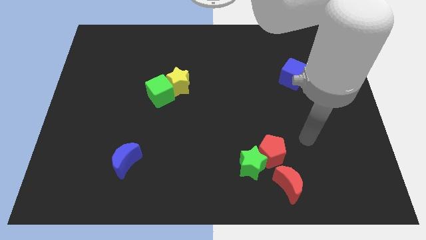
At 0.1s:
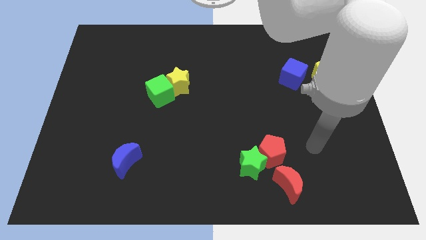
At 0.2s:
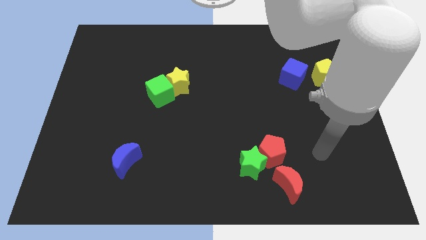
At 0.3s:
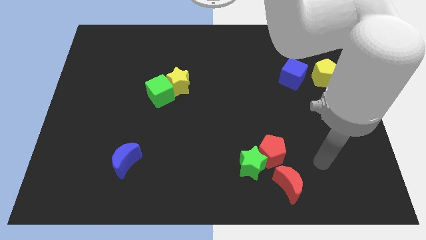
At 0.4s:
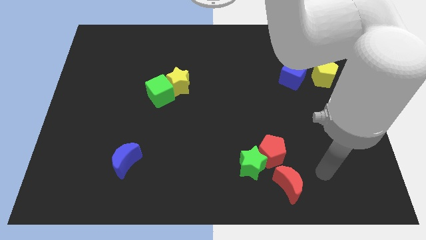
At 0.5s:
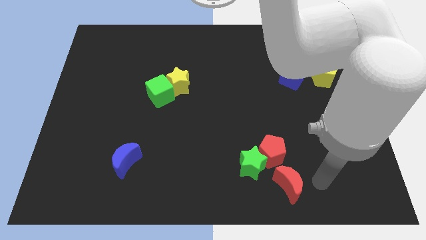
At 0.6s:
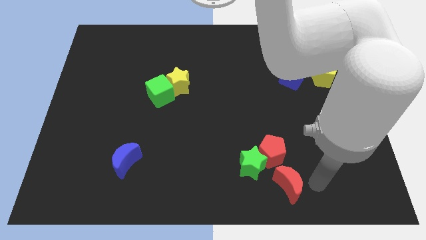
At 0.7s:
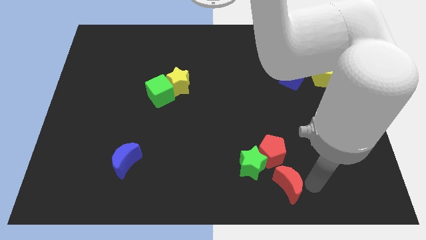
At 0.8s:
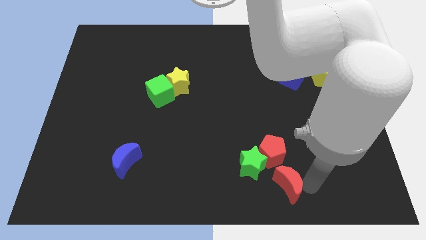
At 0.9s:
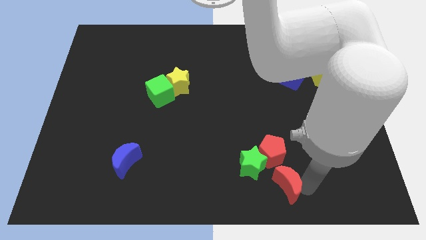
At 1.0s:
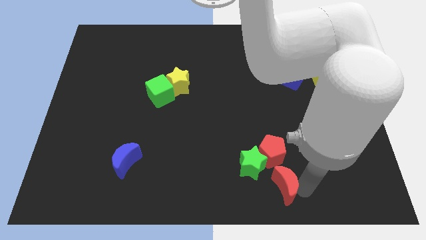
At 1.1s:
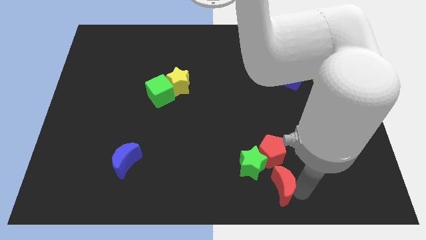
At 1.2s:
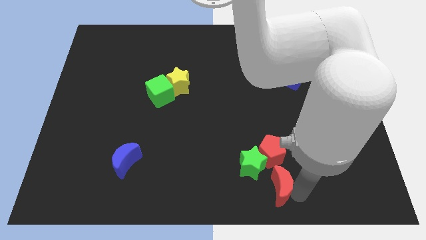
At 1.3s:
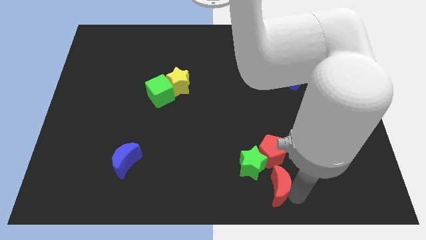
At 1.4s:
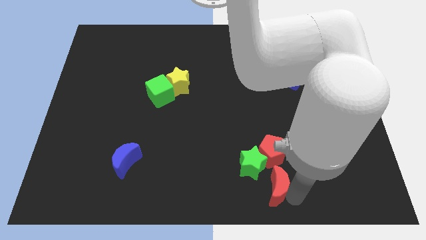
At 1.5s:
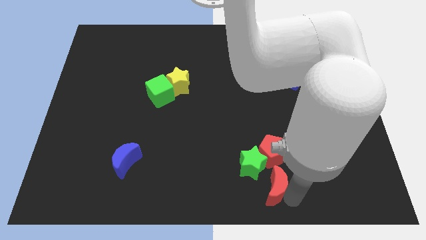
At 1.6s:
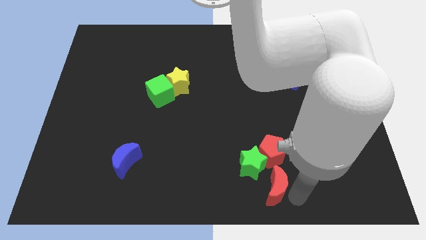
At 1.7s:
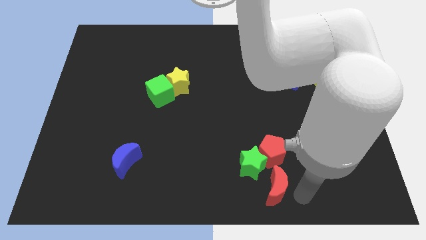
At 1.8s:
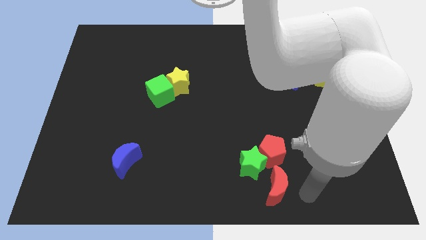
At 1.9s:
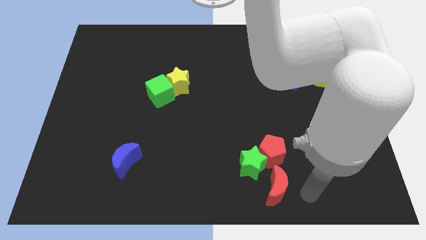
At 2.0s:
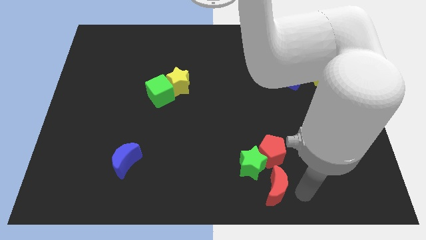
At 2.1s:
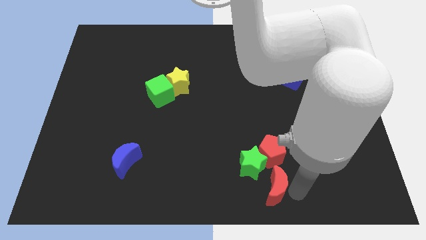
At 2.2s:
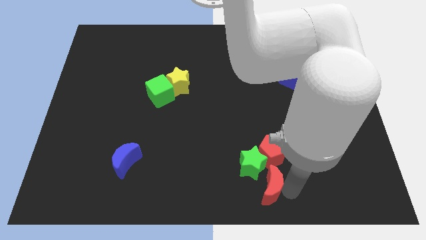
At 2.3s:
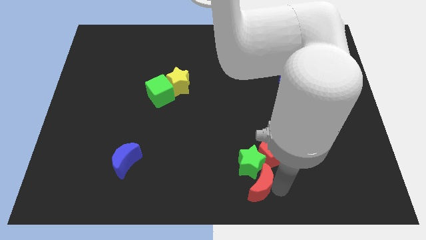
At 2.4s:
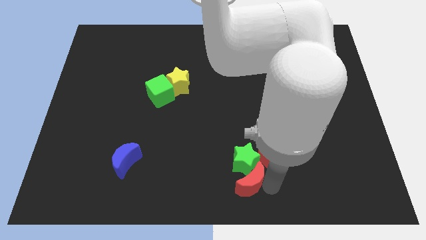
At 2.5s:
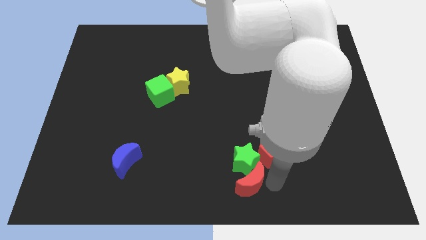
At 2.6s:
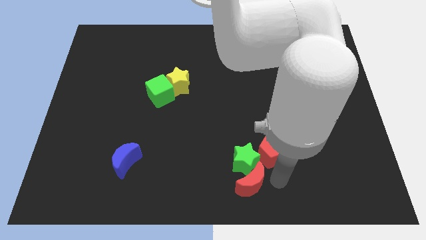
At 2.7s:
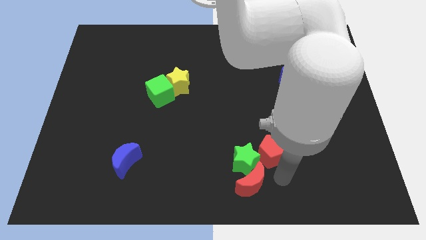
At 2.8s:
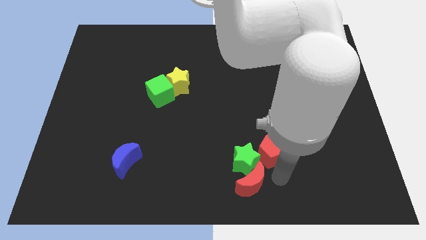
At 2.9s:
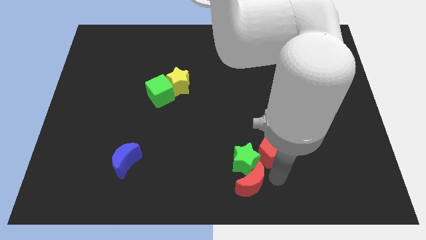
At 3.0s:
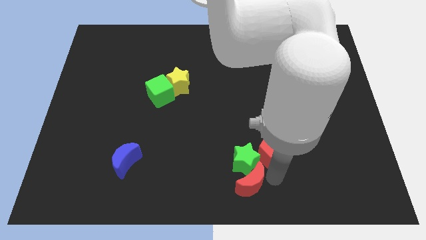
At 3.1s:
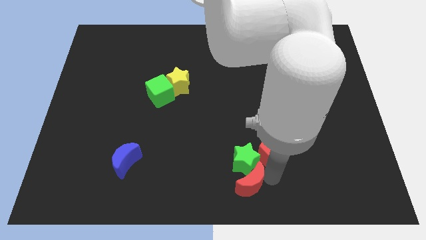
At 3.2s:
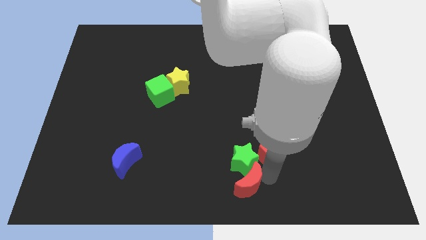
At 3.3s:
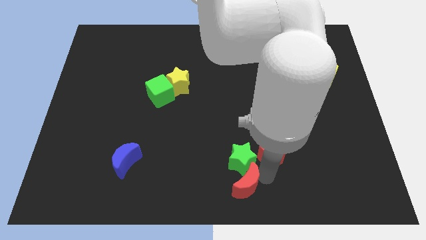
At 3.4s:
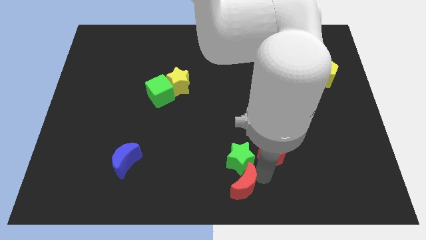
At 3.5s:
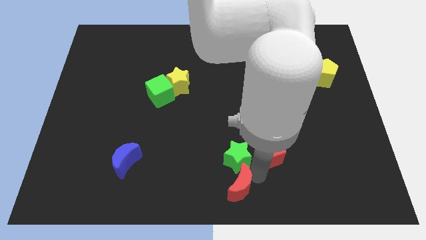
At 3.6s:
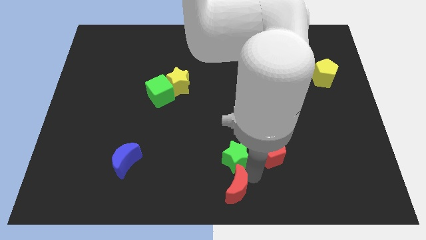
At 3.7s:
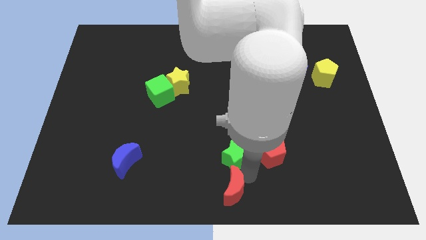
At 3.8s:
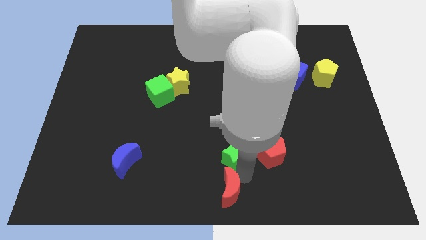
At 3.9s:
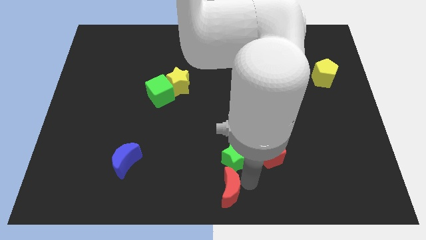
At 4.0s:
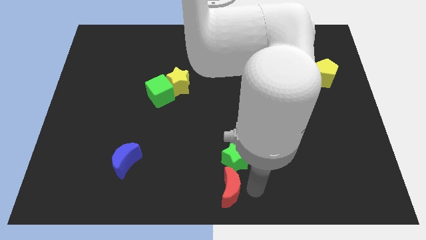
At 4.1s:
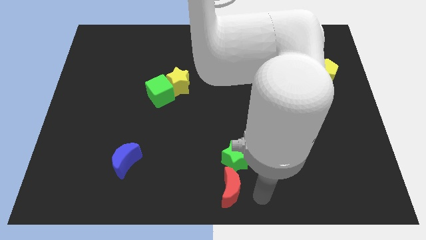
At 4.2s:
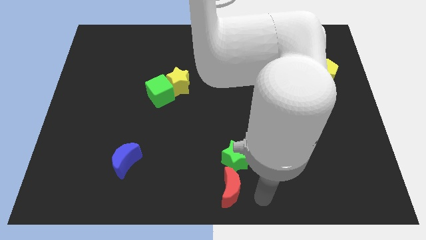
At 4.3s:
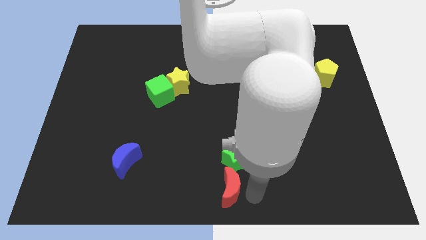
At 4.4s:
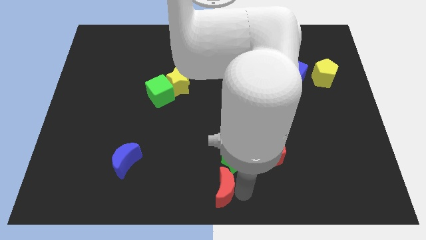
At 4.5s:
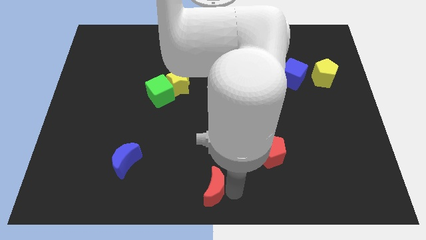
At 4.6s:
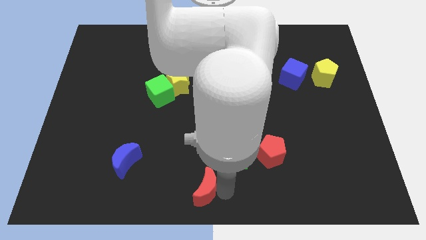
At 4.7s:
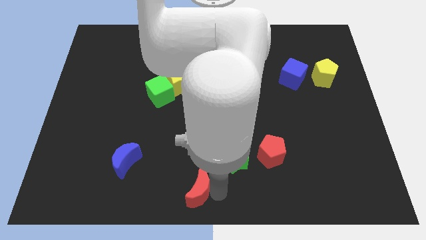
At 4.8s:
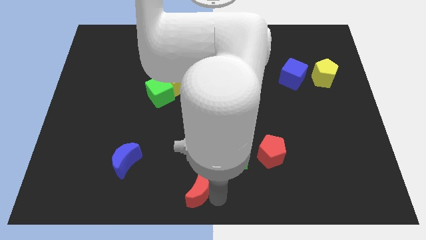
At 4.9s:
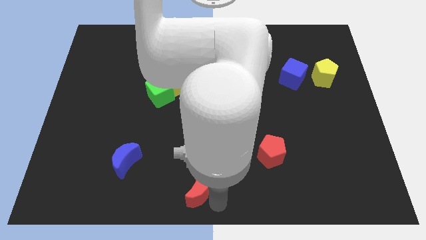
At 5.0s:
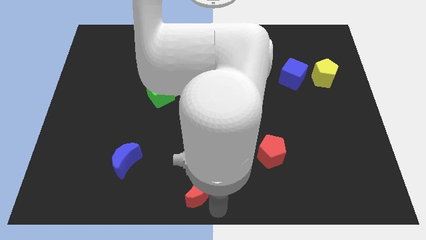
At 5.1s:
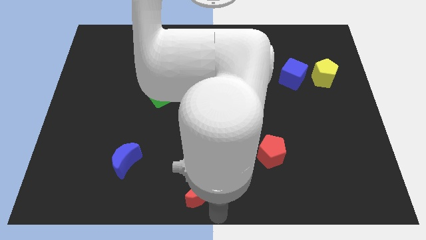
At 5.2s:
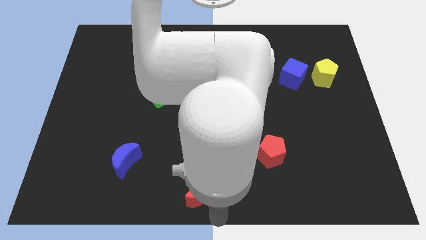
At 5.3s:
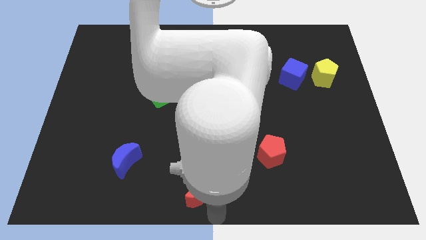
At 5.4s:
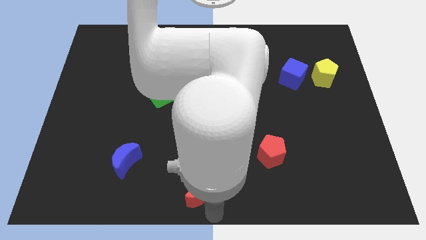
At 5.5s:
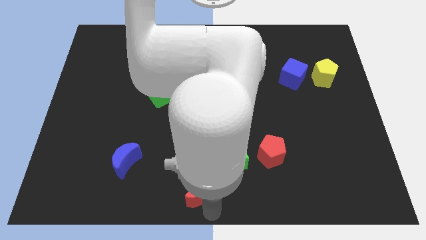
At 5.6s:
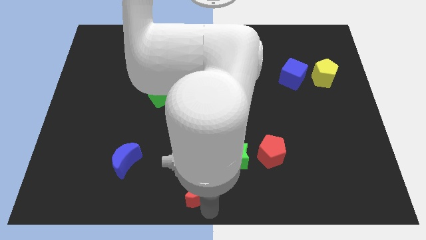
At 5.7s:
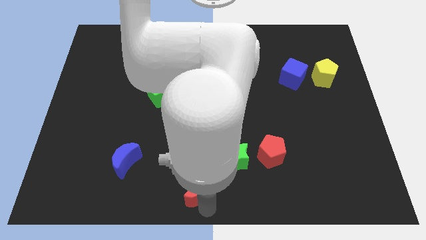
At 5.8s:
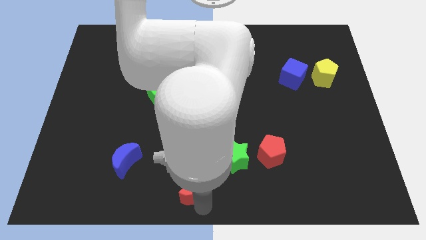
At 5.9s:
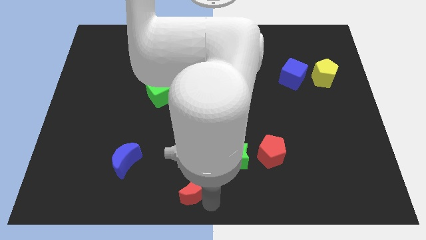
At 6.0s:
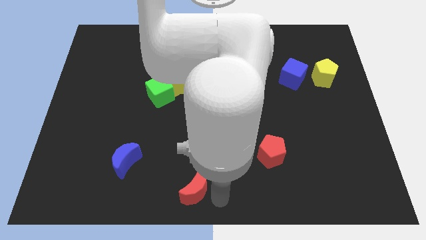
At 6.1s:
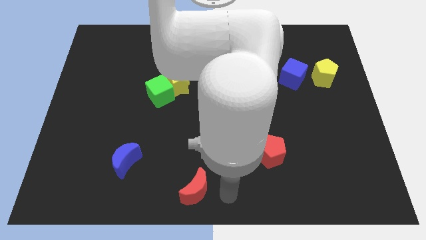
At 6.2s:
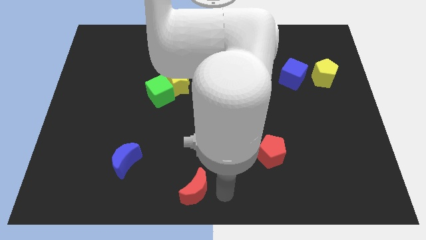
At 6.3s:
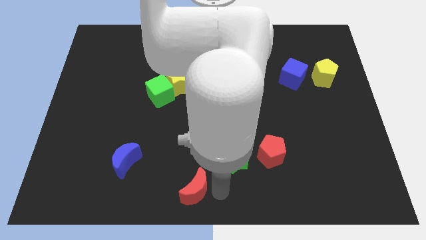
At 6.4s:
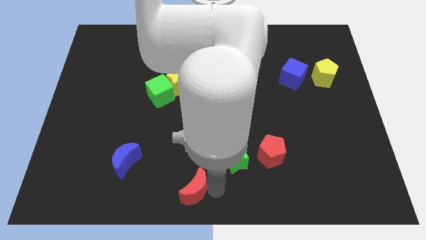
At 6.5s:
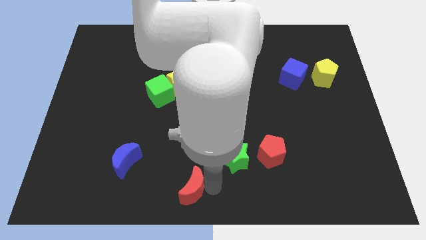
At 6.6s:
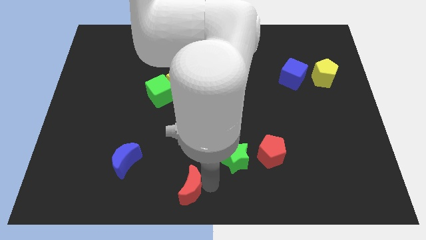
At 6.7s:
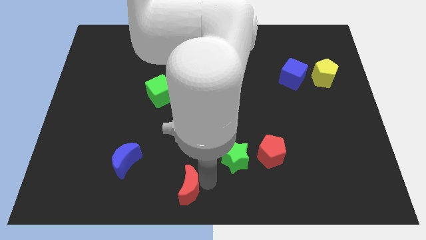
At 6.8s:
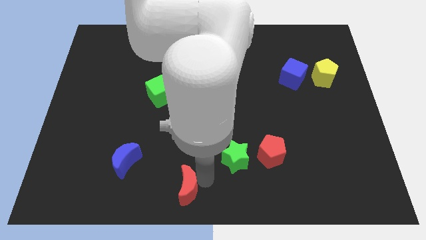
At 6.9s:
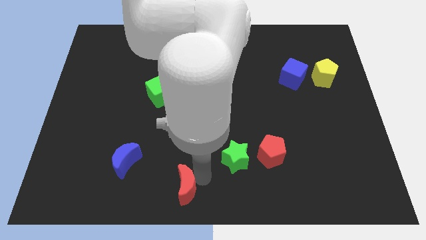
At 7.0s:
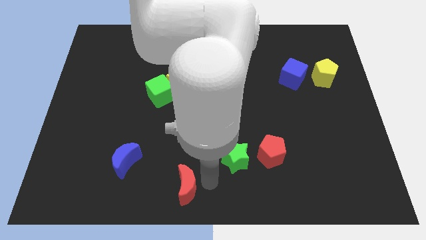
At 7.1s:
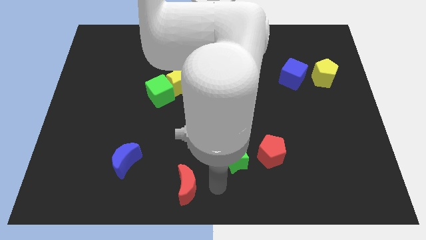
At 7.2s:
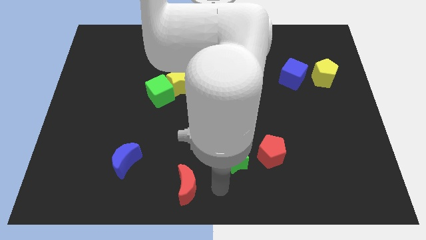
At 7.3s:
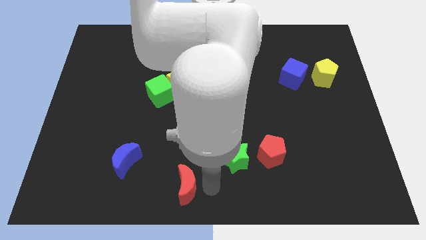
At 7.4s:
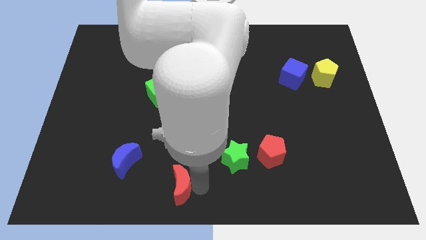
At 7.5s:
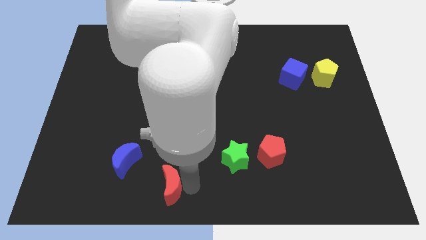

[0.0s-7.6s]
move the red moon to the bottom right side of the blue moon

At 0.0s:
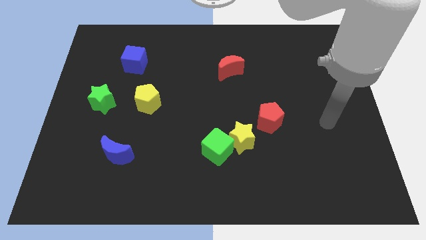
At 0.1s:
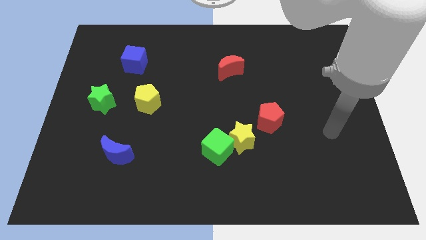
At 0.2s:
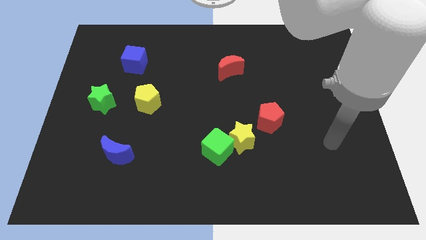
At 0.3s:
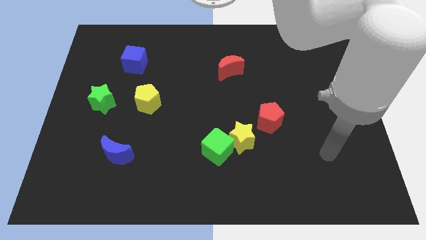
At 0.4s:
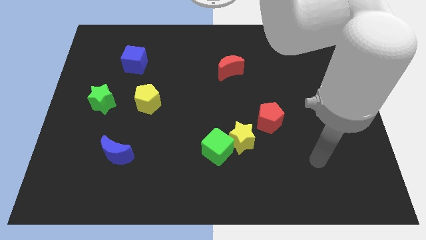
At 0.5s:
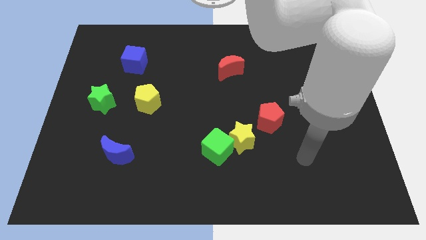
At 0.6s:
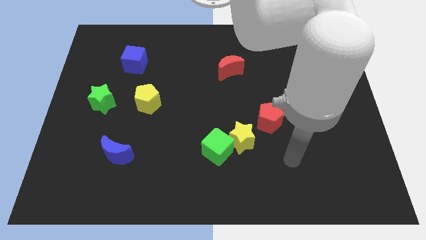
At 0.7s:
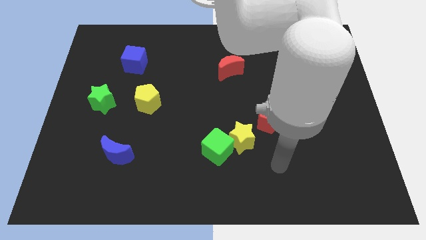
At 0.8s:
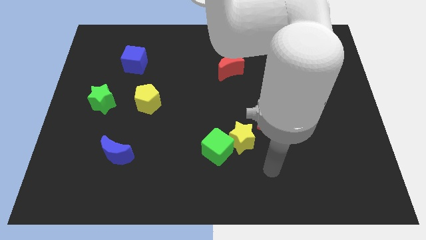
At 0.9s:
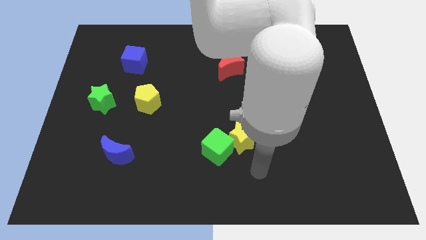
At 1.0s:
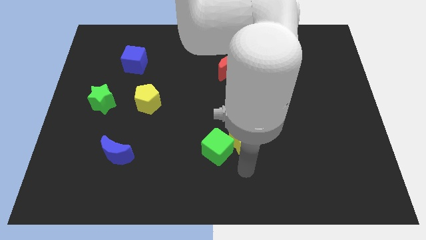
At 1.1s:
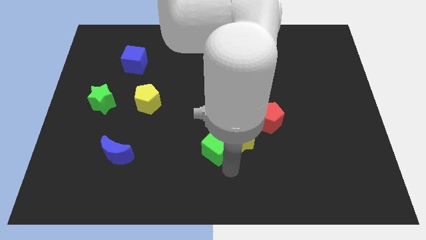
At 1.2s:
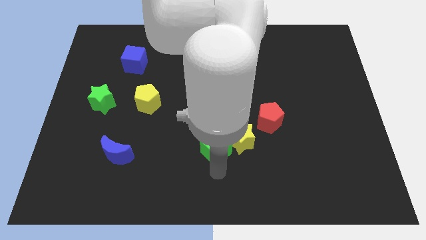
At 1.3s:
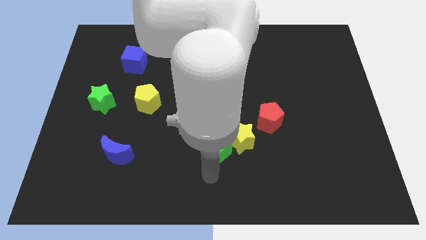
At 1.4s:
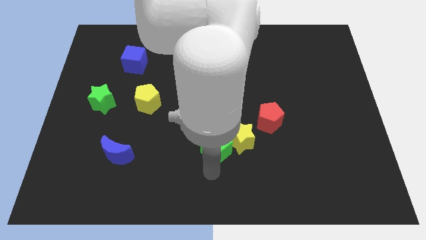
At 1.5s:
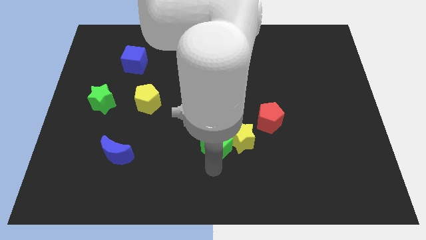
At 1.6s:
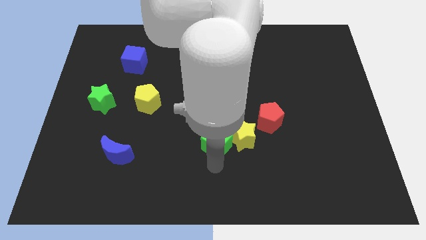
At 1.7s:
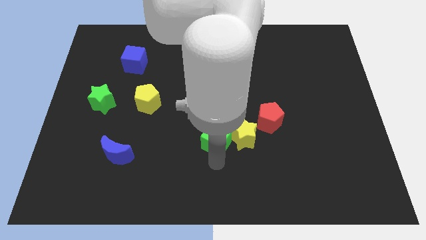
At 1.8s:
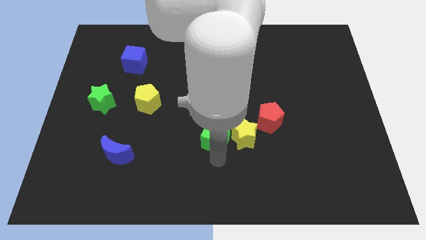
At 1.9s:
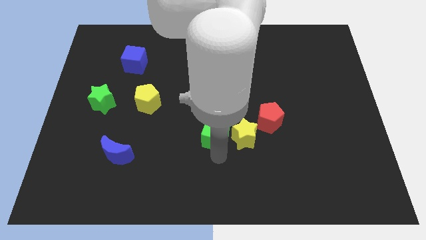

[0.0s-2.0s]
move the green cube to the left of the red pentagon
